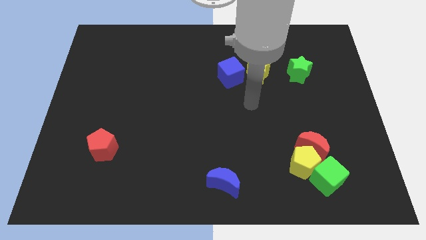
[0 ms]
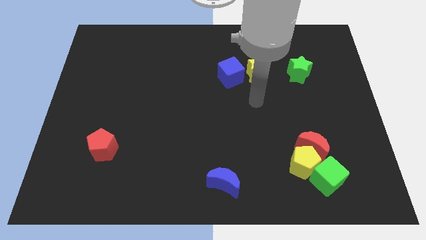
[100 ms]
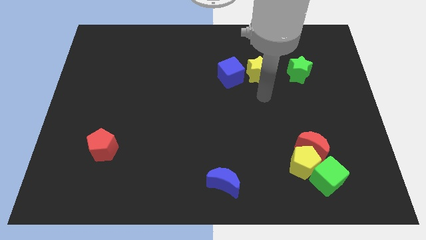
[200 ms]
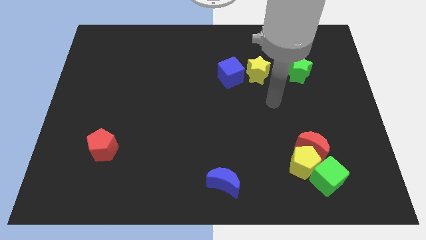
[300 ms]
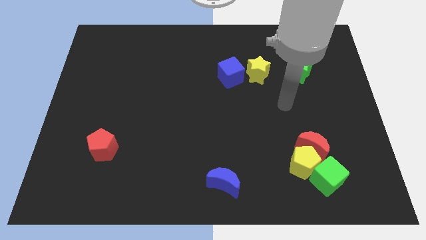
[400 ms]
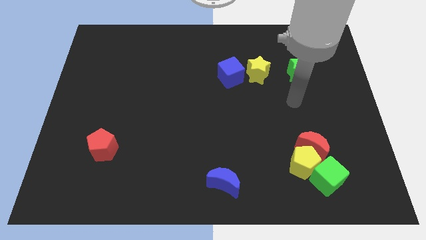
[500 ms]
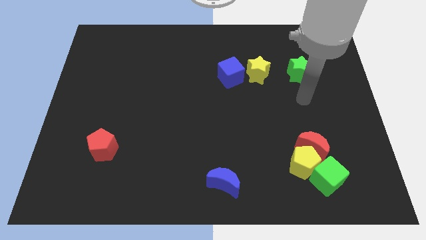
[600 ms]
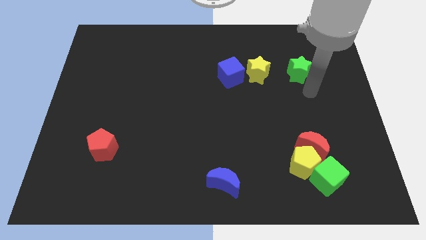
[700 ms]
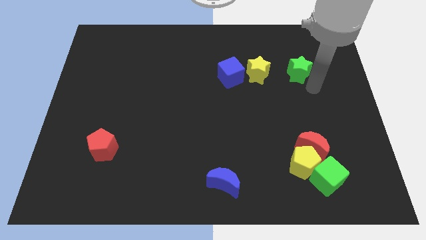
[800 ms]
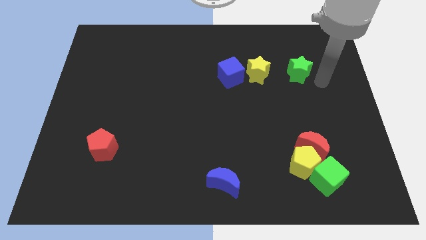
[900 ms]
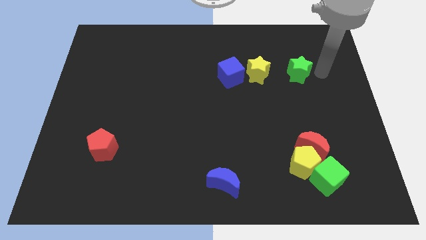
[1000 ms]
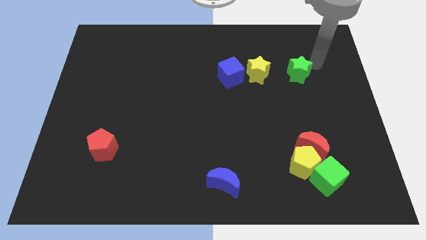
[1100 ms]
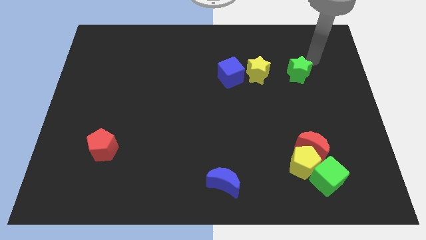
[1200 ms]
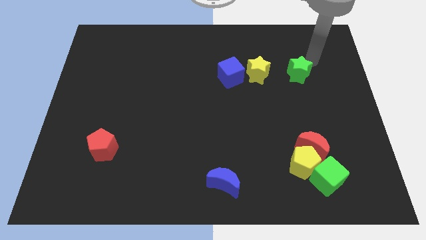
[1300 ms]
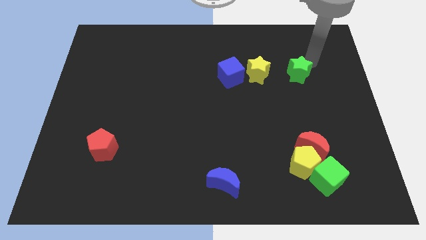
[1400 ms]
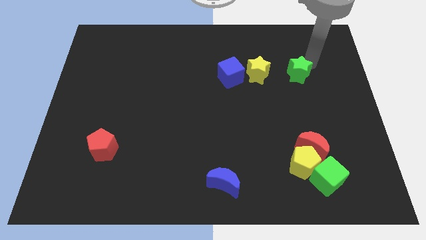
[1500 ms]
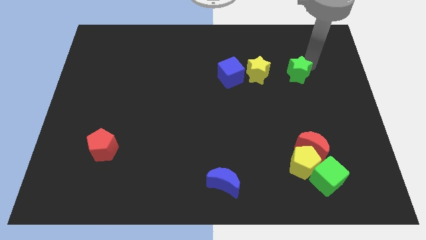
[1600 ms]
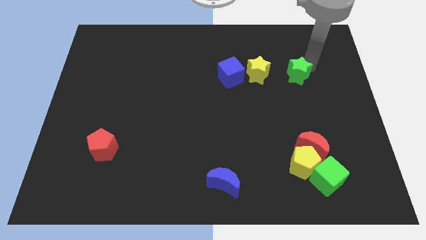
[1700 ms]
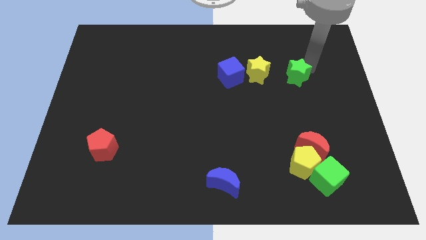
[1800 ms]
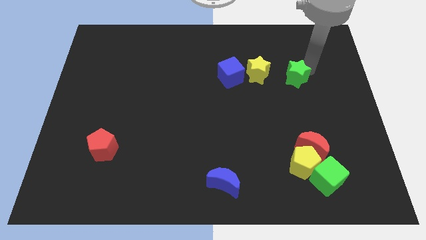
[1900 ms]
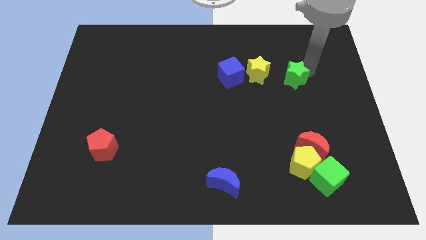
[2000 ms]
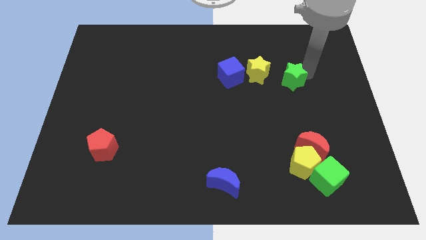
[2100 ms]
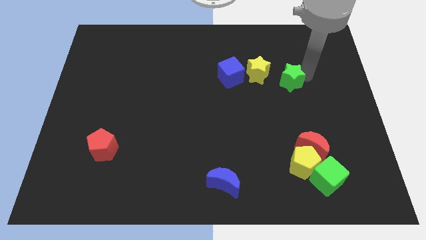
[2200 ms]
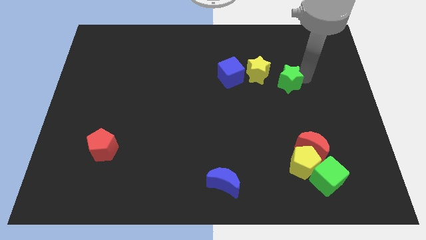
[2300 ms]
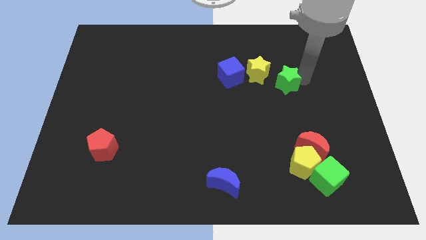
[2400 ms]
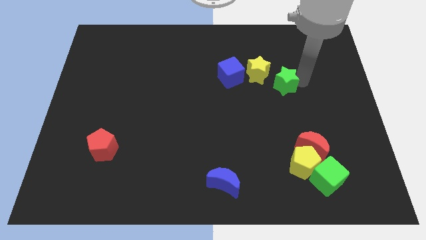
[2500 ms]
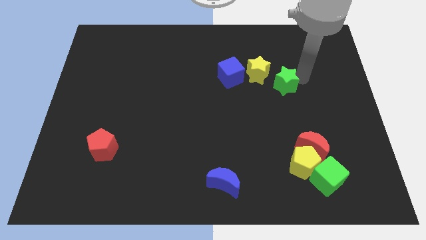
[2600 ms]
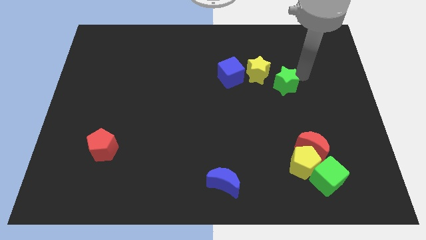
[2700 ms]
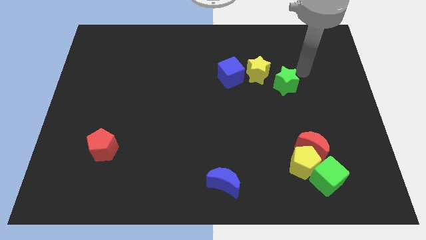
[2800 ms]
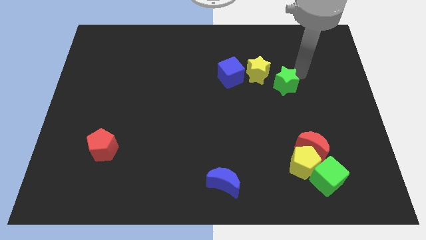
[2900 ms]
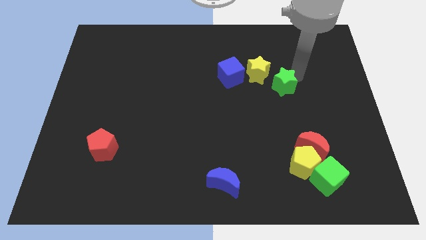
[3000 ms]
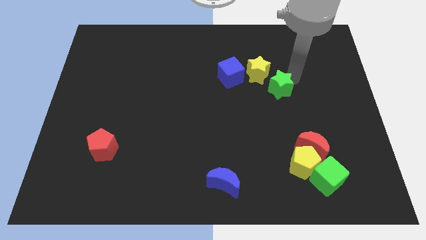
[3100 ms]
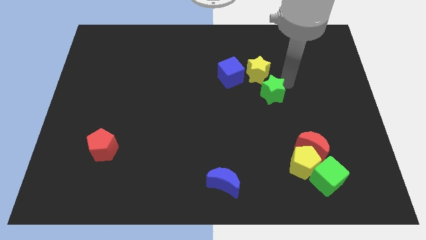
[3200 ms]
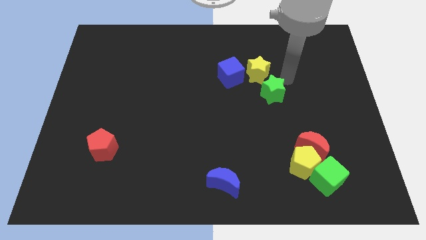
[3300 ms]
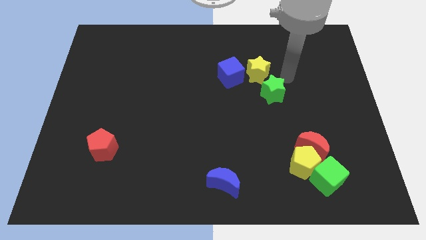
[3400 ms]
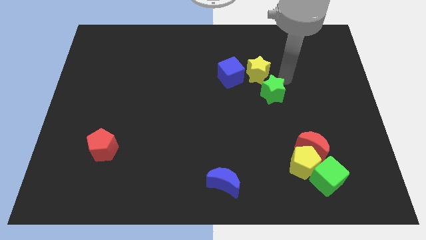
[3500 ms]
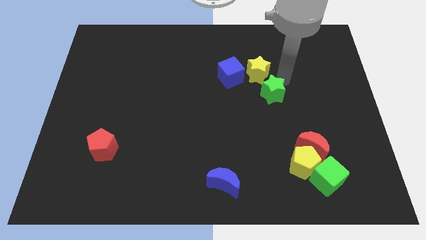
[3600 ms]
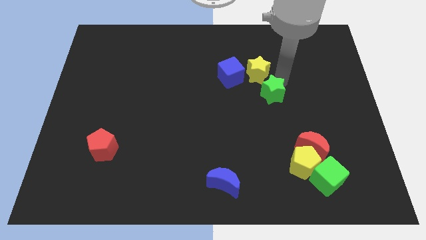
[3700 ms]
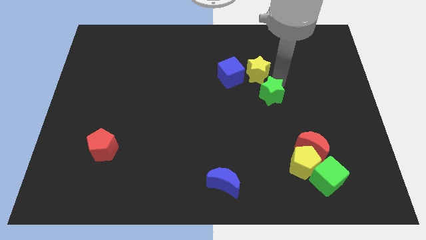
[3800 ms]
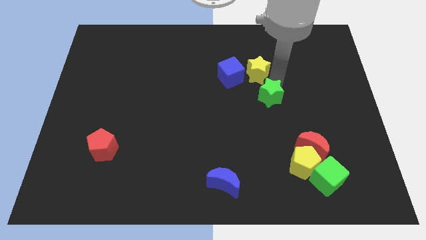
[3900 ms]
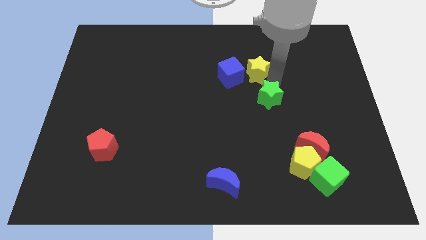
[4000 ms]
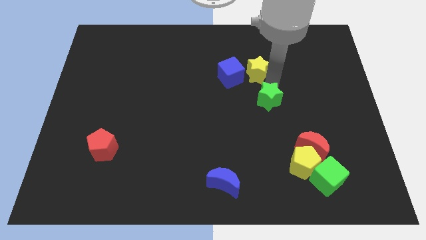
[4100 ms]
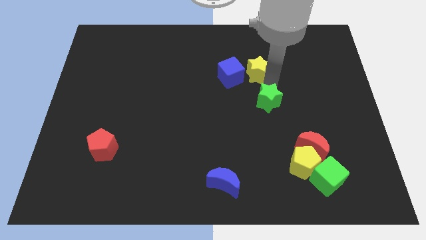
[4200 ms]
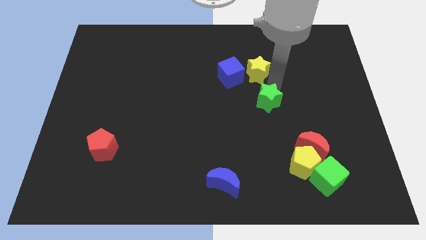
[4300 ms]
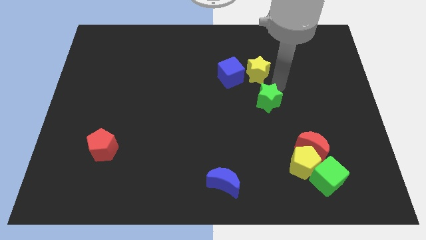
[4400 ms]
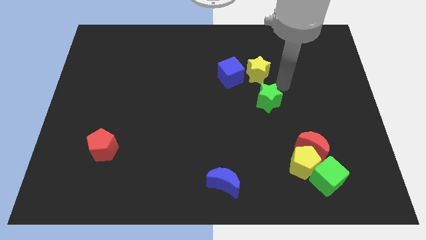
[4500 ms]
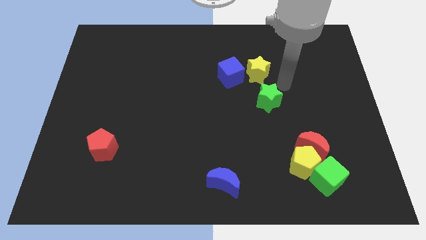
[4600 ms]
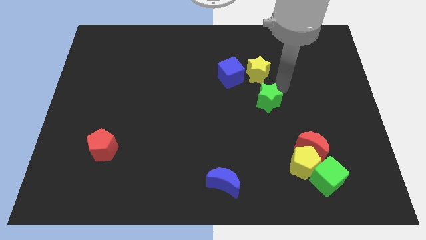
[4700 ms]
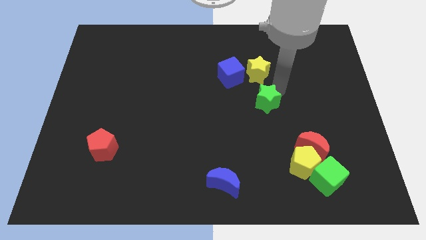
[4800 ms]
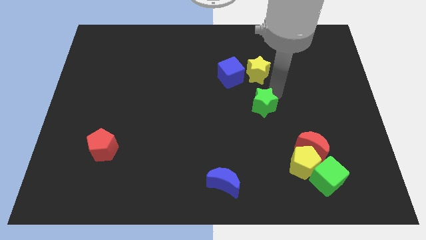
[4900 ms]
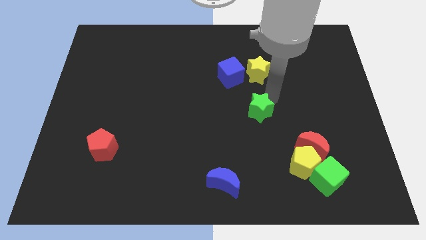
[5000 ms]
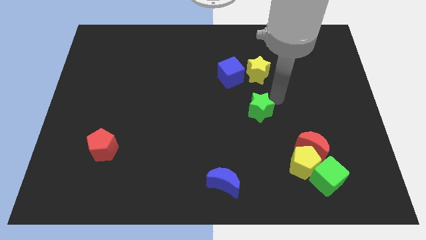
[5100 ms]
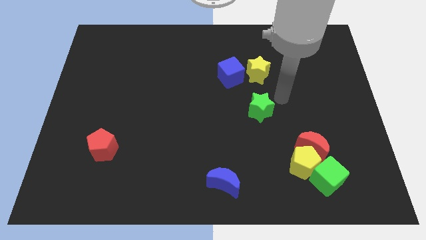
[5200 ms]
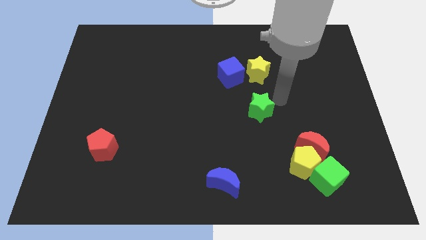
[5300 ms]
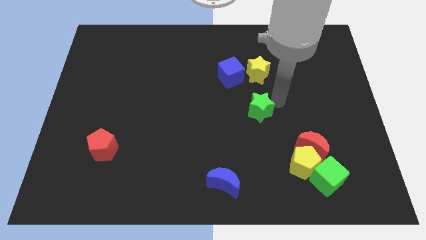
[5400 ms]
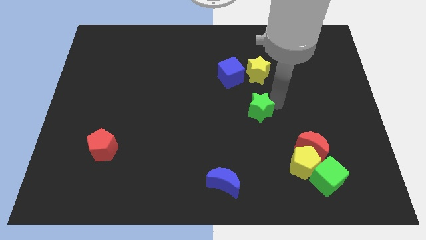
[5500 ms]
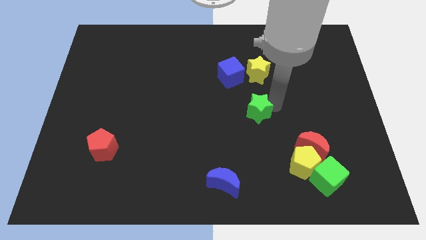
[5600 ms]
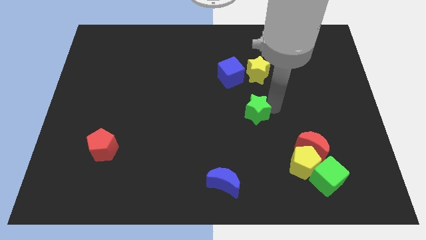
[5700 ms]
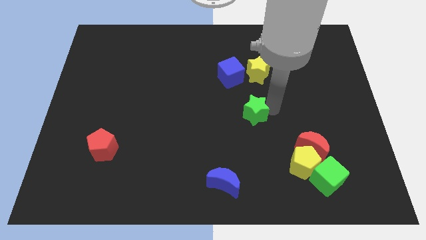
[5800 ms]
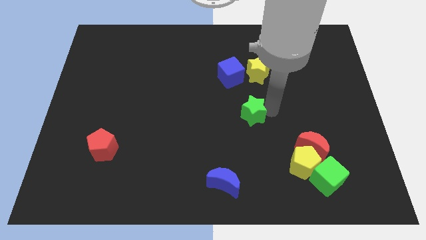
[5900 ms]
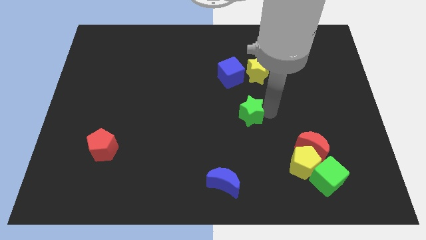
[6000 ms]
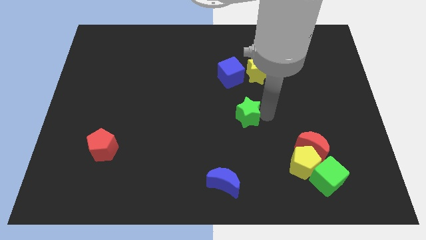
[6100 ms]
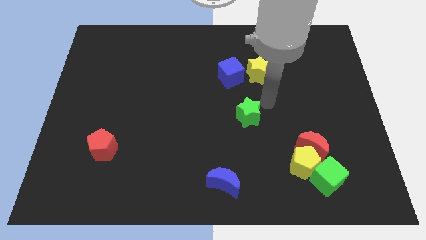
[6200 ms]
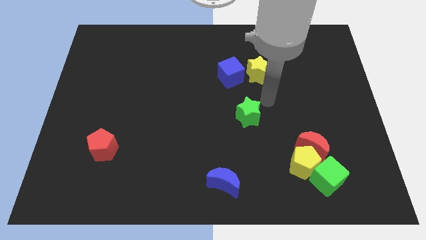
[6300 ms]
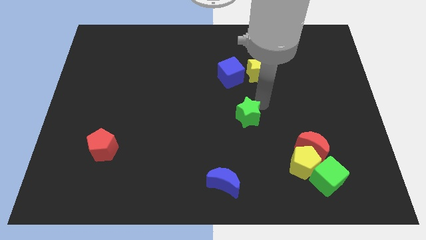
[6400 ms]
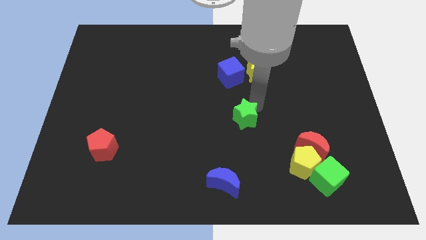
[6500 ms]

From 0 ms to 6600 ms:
move the green star diagonally down and left

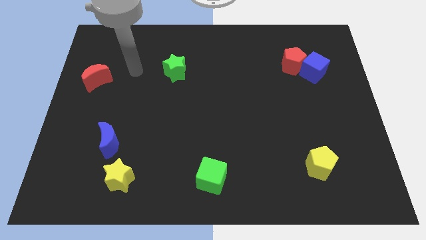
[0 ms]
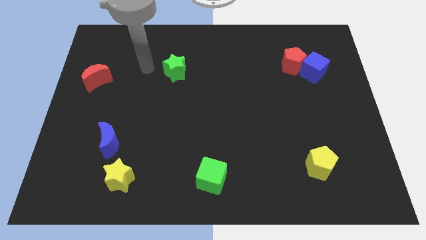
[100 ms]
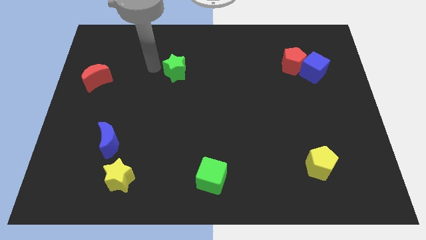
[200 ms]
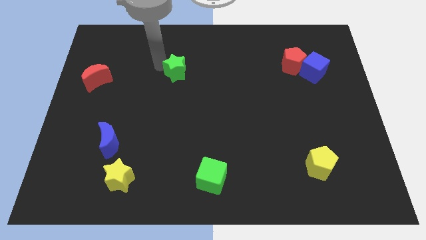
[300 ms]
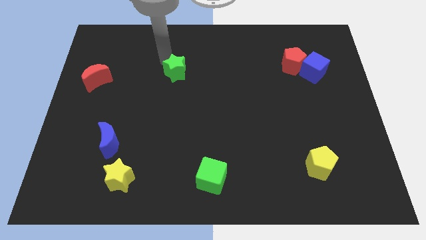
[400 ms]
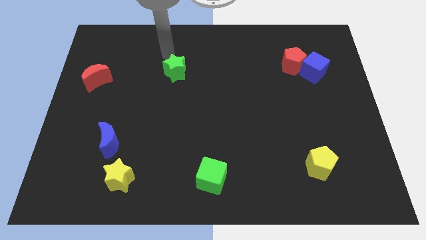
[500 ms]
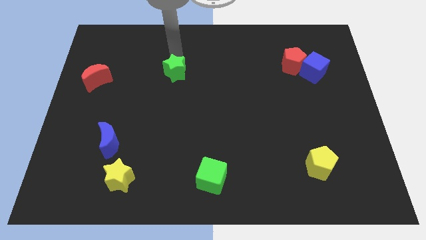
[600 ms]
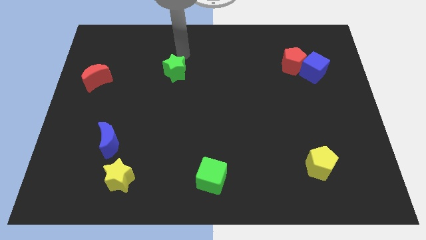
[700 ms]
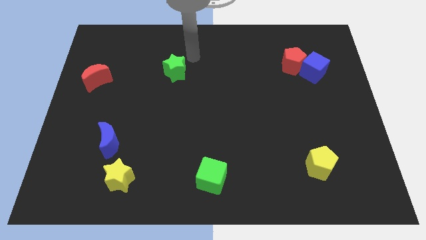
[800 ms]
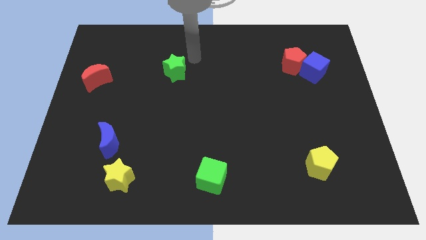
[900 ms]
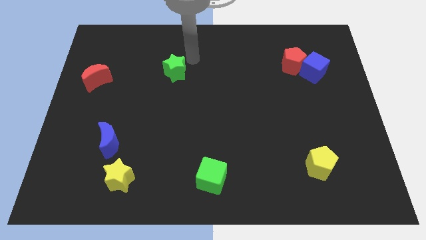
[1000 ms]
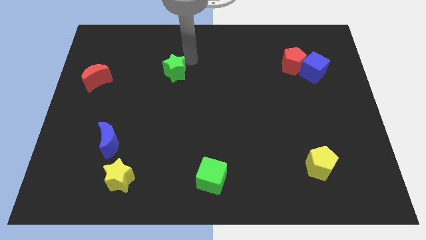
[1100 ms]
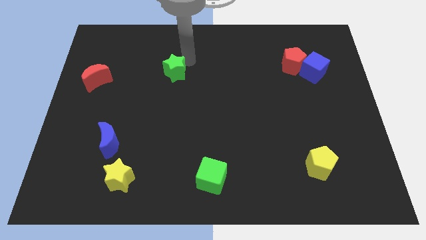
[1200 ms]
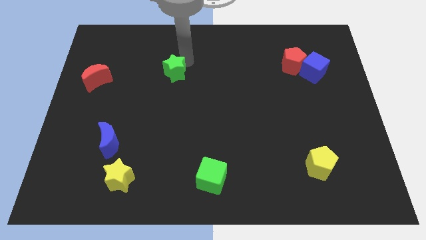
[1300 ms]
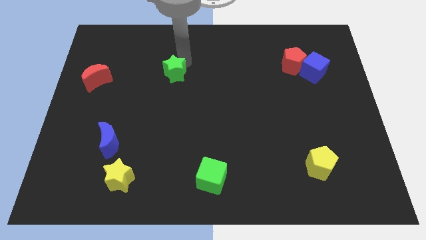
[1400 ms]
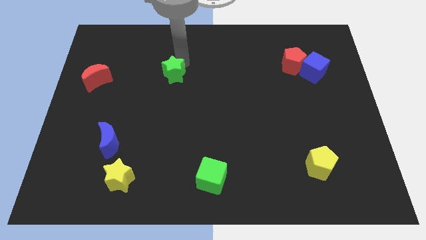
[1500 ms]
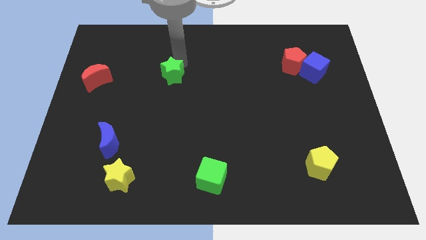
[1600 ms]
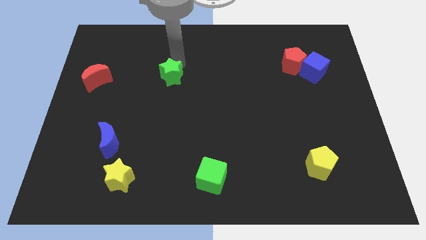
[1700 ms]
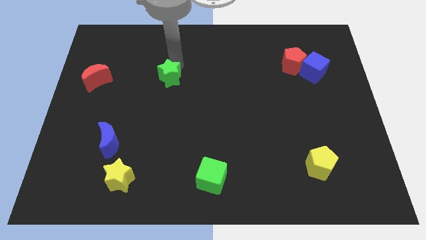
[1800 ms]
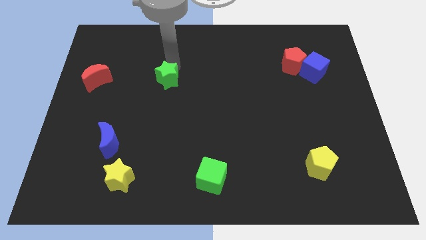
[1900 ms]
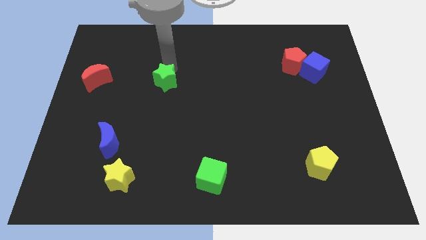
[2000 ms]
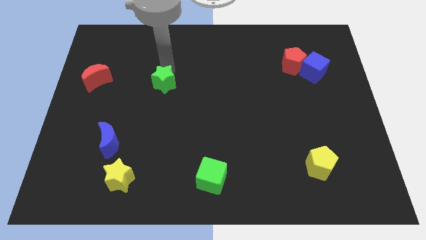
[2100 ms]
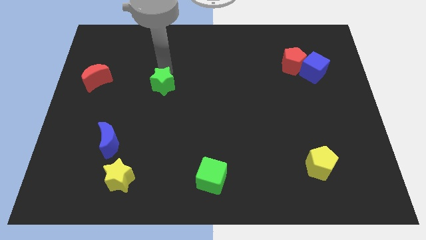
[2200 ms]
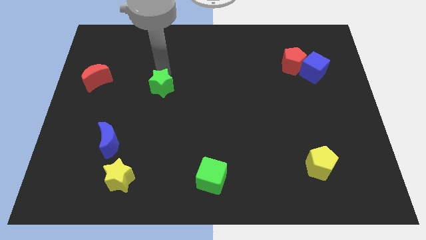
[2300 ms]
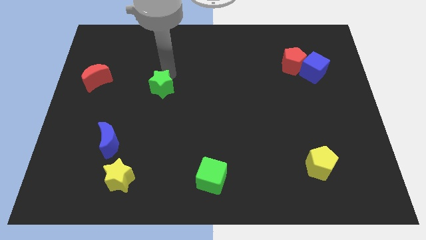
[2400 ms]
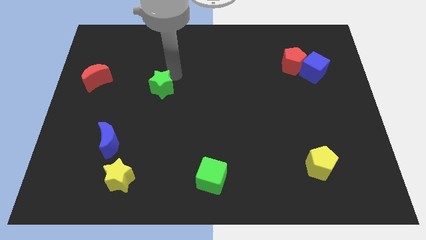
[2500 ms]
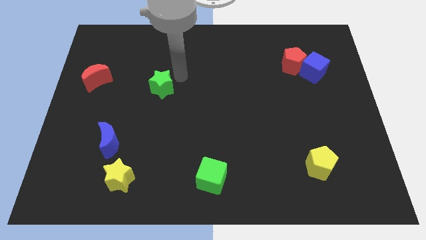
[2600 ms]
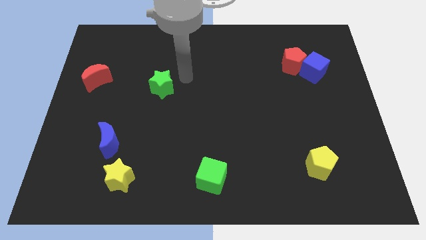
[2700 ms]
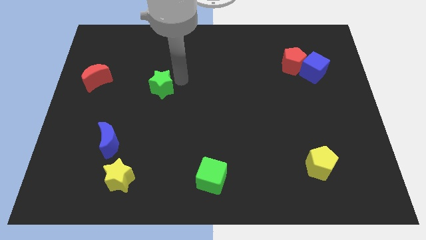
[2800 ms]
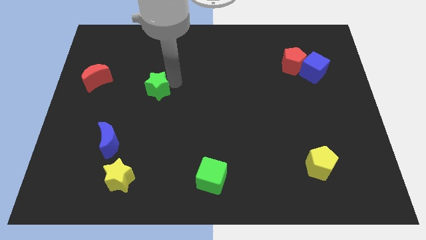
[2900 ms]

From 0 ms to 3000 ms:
move the green star diagonally downwards and to the left a little
